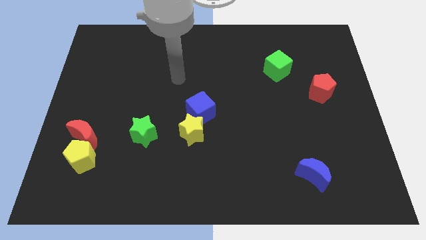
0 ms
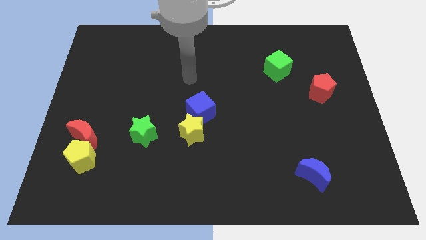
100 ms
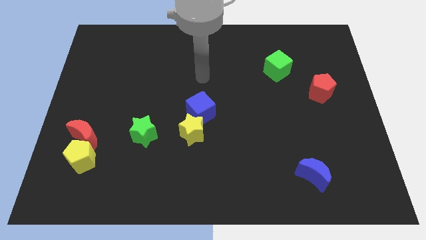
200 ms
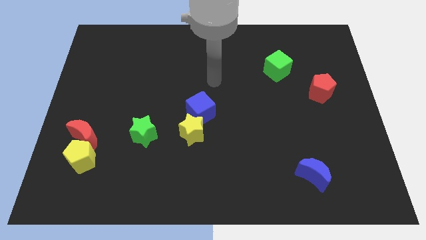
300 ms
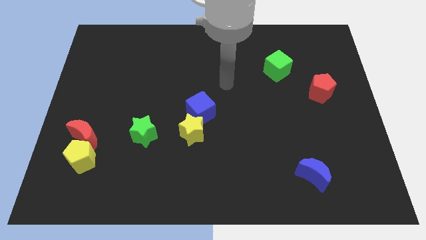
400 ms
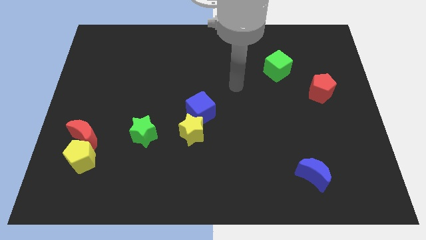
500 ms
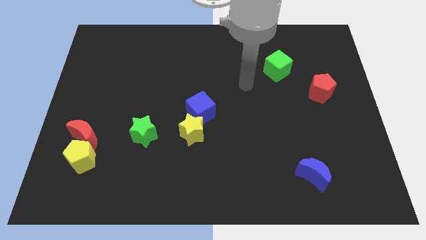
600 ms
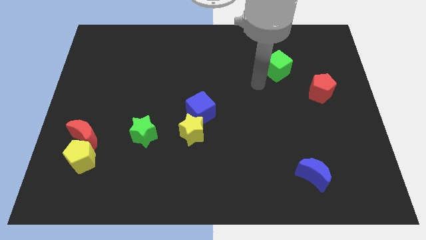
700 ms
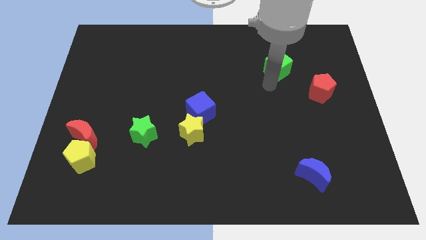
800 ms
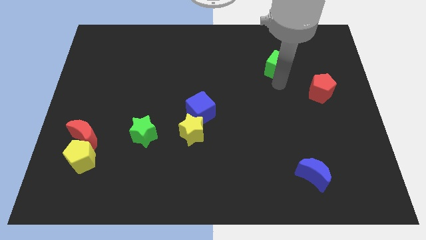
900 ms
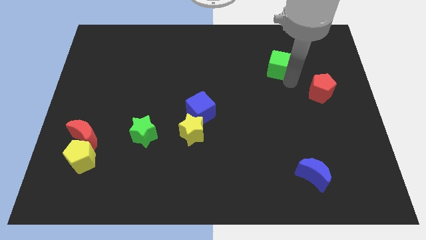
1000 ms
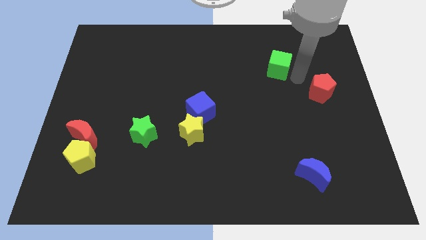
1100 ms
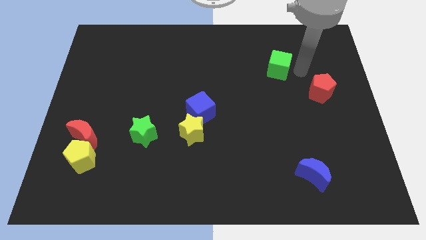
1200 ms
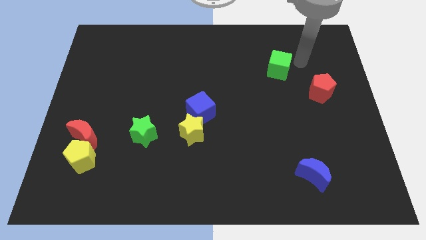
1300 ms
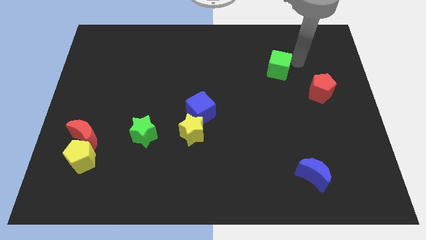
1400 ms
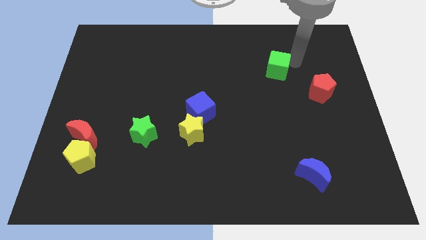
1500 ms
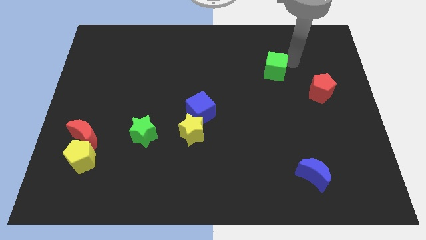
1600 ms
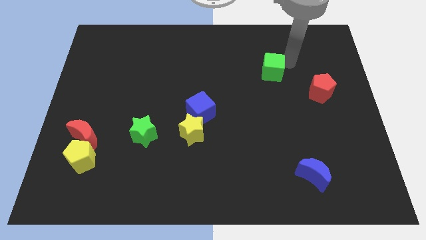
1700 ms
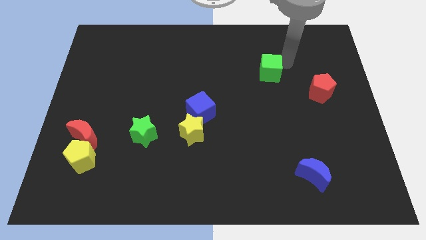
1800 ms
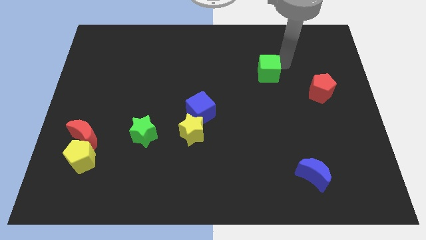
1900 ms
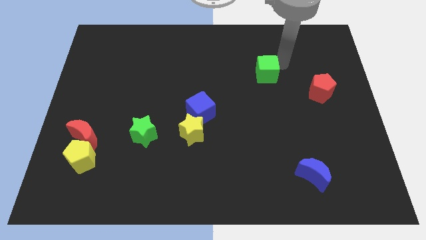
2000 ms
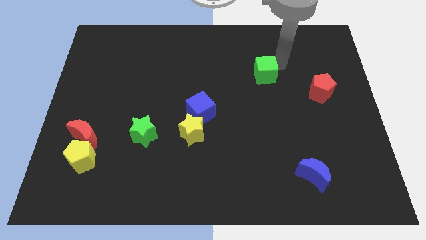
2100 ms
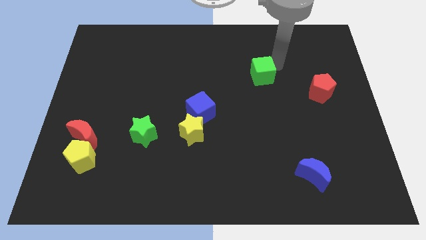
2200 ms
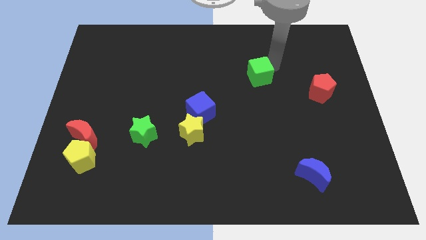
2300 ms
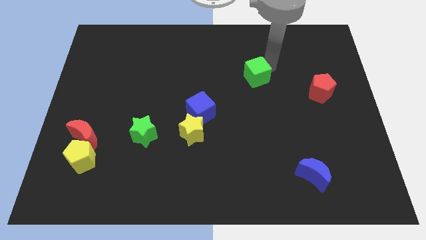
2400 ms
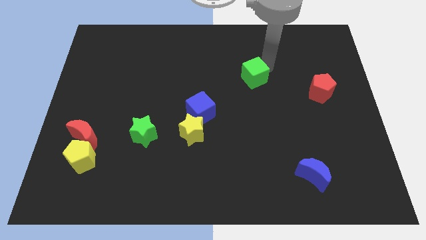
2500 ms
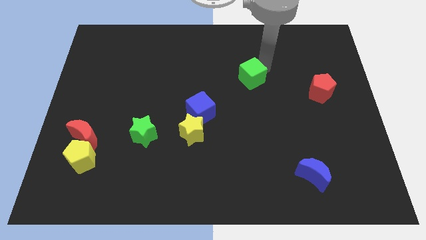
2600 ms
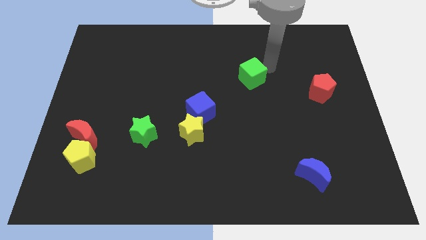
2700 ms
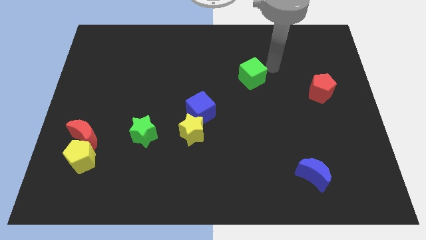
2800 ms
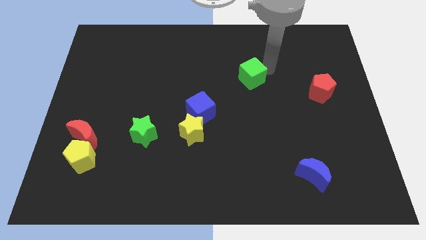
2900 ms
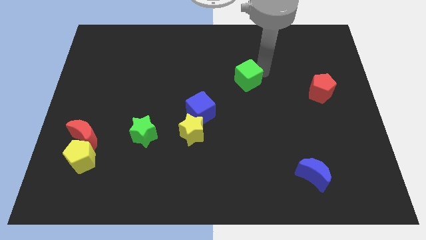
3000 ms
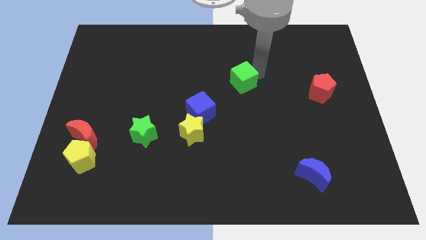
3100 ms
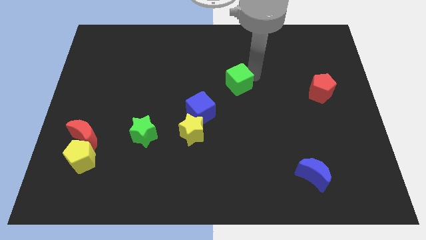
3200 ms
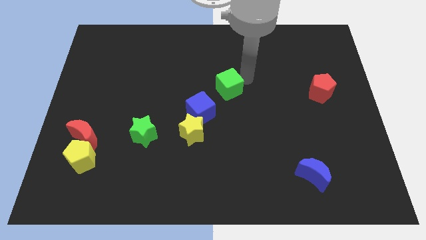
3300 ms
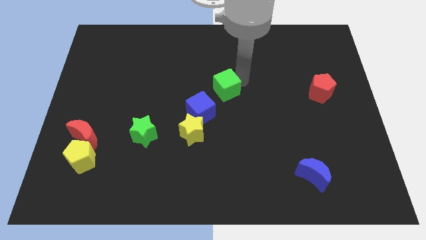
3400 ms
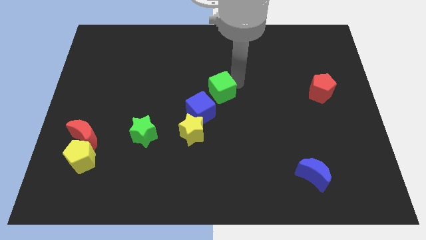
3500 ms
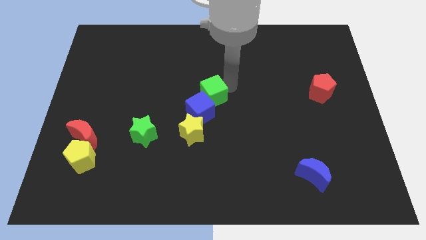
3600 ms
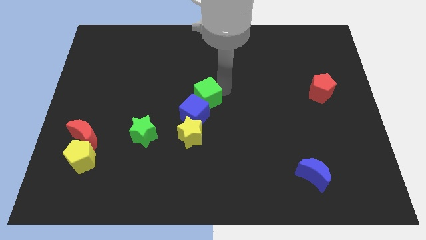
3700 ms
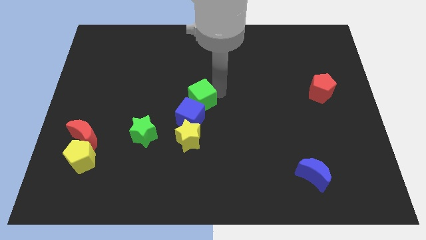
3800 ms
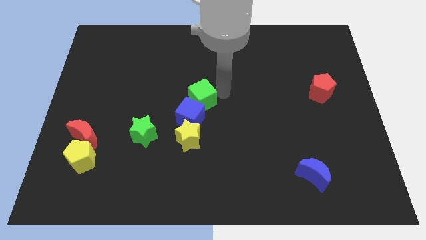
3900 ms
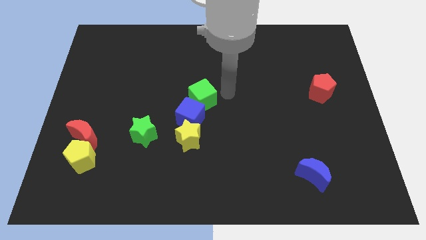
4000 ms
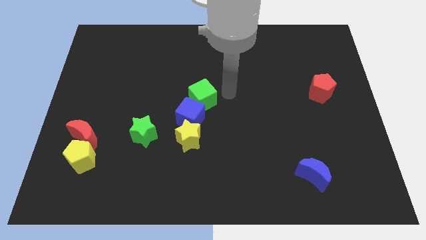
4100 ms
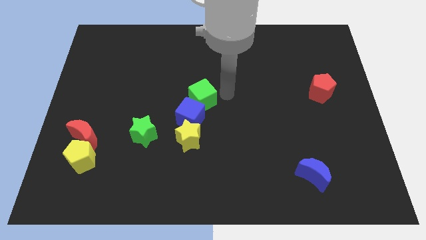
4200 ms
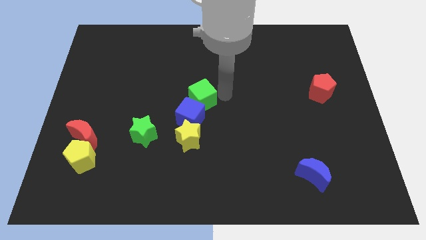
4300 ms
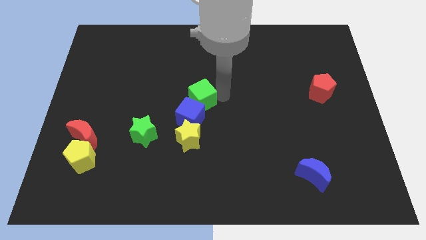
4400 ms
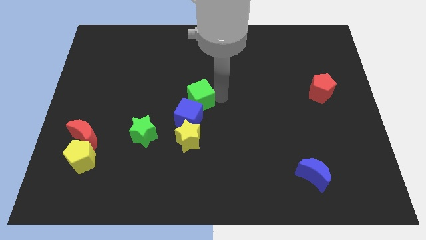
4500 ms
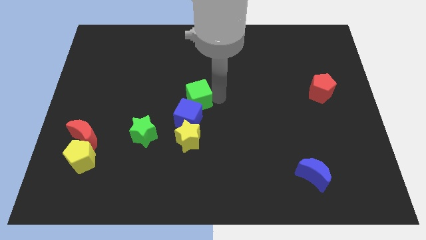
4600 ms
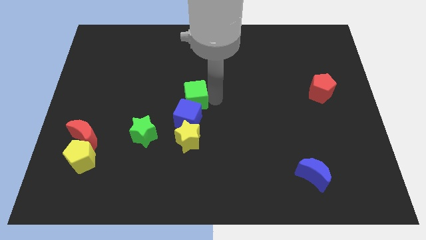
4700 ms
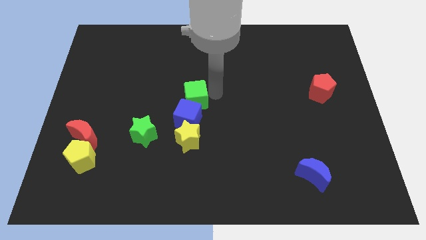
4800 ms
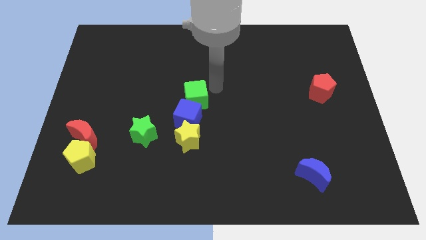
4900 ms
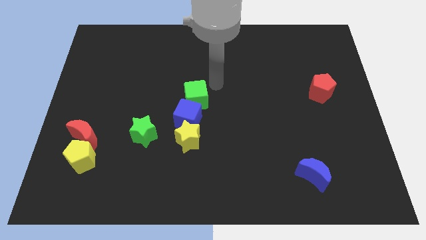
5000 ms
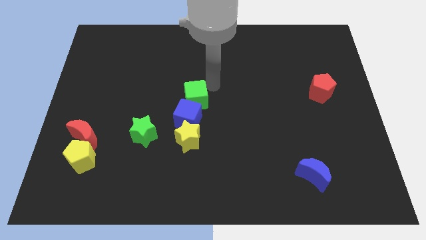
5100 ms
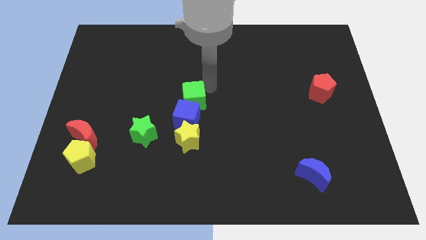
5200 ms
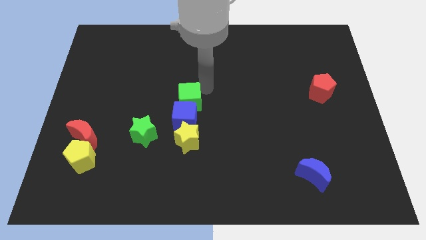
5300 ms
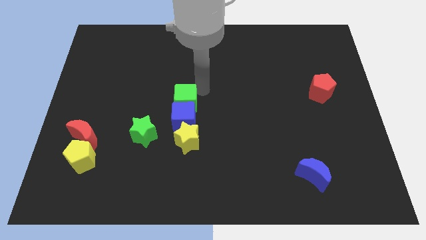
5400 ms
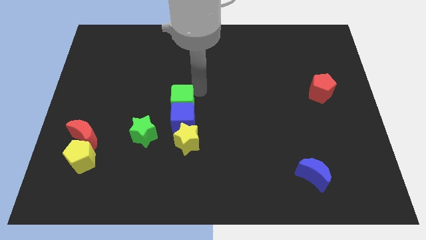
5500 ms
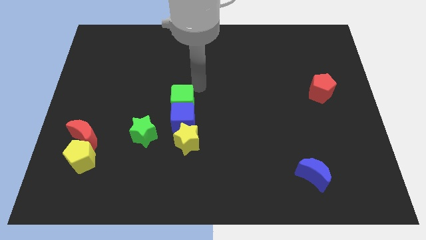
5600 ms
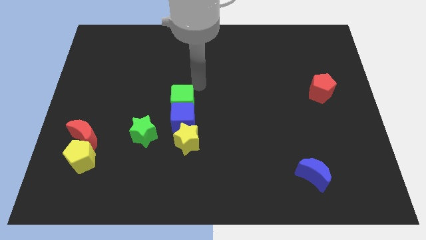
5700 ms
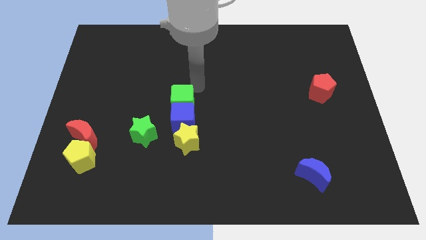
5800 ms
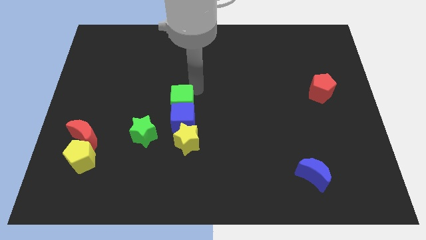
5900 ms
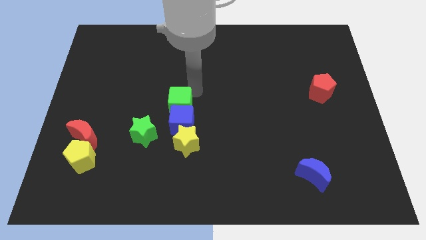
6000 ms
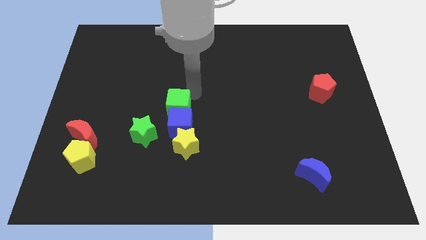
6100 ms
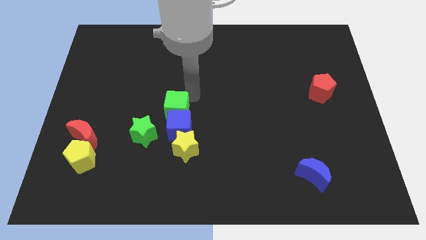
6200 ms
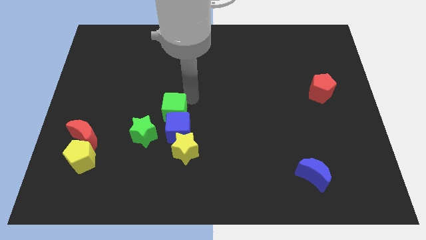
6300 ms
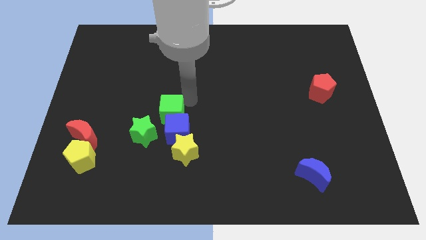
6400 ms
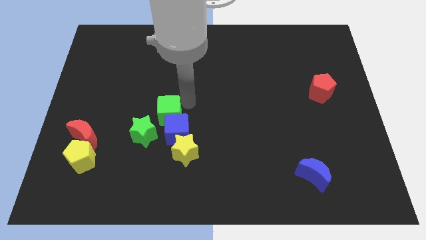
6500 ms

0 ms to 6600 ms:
push the green cube diagonally up and to the left of the yellow star
